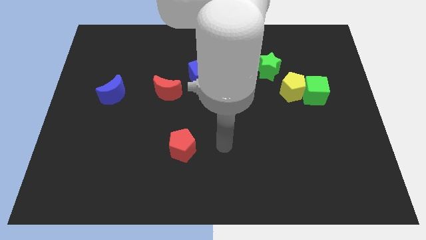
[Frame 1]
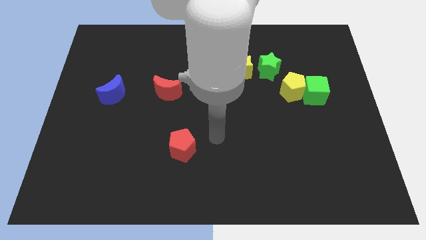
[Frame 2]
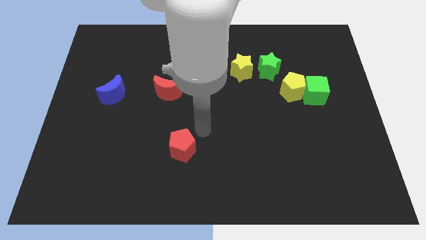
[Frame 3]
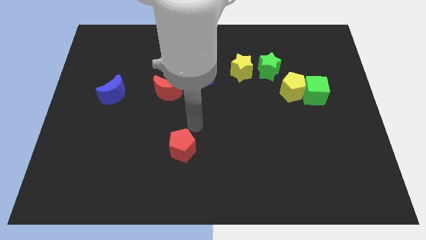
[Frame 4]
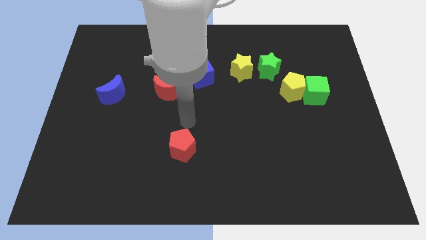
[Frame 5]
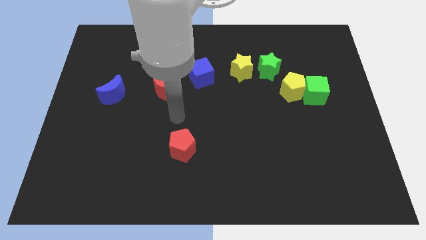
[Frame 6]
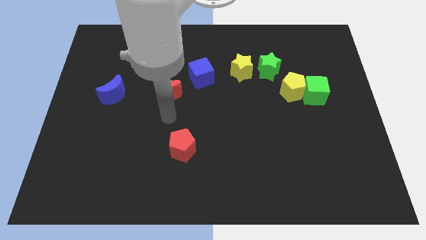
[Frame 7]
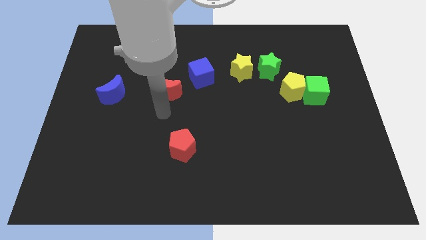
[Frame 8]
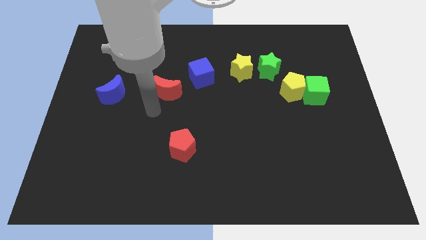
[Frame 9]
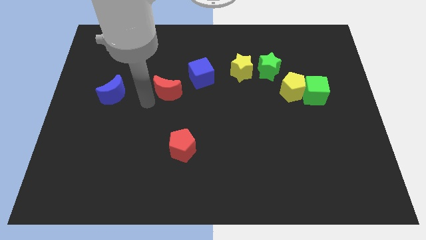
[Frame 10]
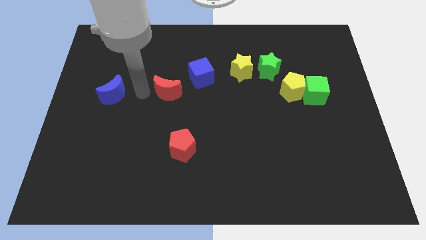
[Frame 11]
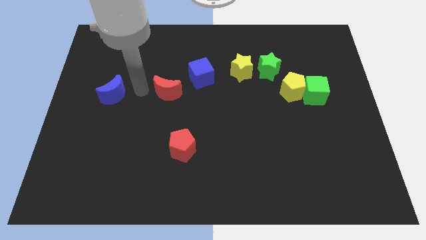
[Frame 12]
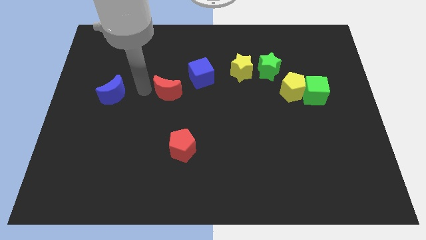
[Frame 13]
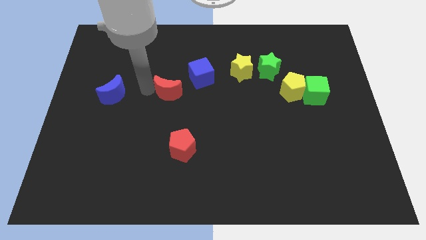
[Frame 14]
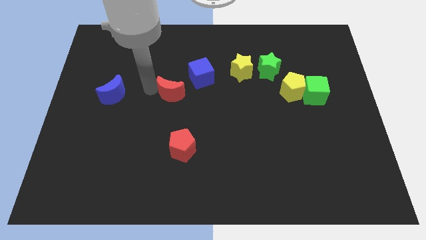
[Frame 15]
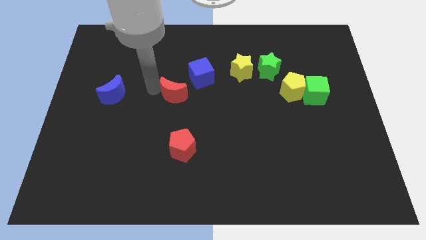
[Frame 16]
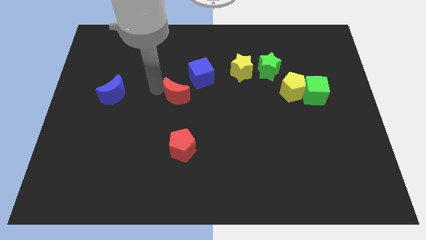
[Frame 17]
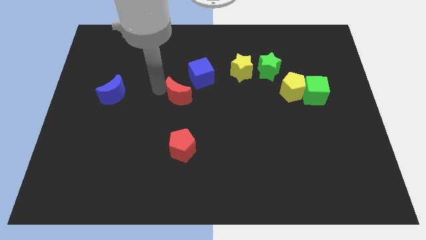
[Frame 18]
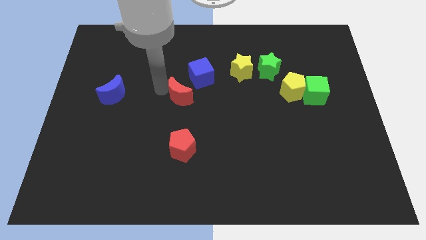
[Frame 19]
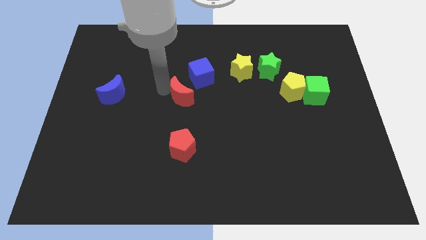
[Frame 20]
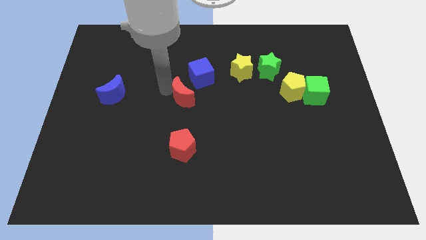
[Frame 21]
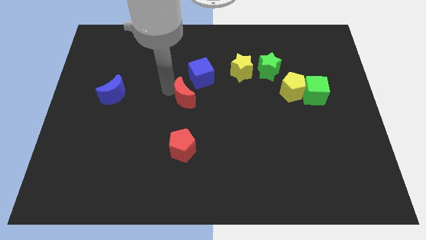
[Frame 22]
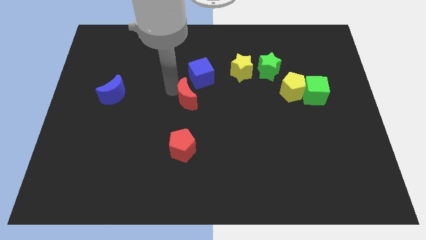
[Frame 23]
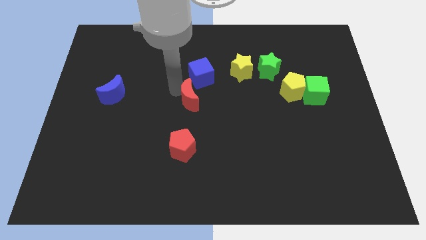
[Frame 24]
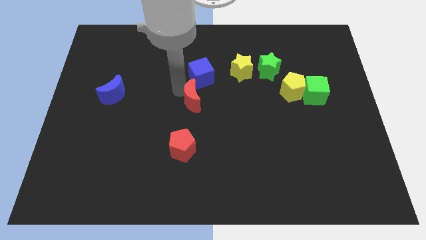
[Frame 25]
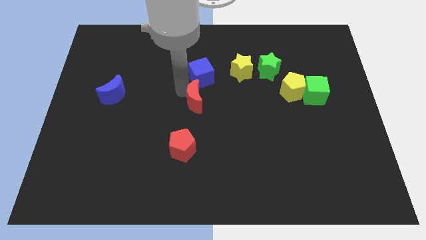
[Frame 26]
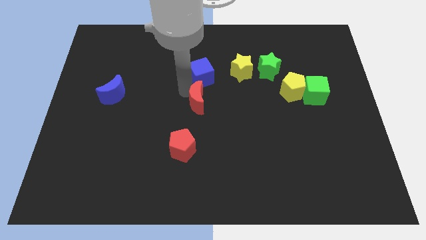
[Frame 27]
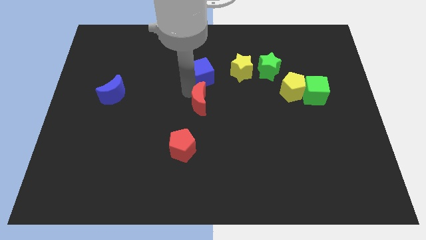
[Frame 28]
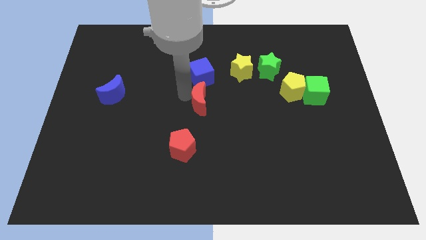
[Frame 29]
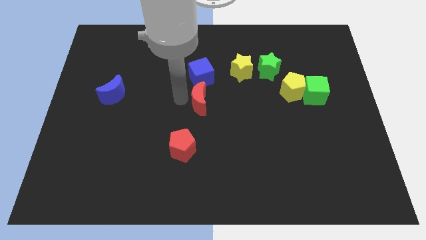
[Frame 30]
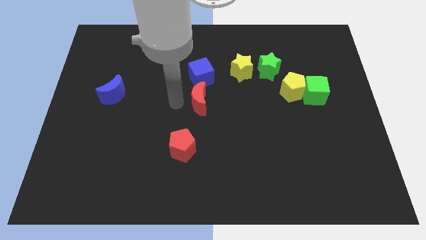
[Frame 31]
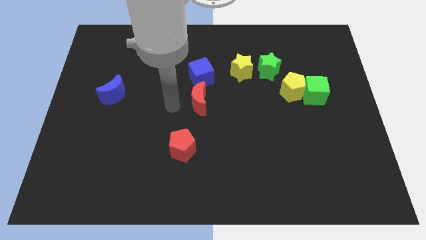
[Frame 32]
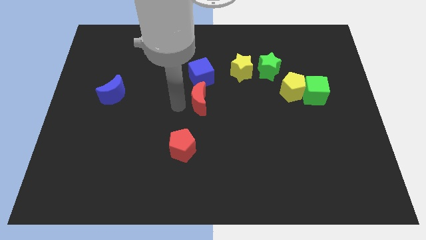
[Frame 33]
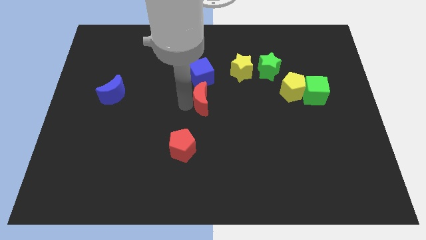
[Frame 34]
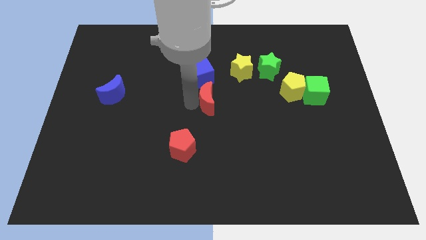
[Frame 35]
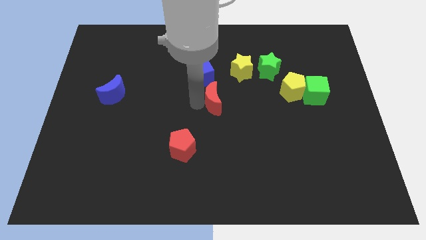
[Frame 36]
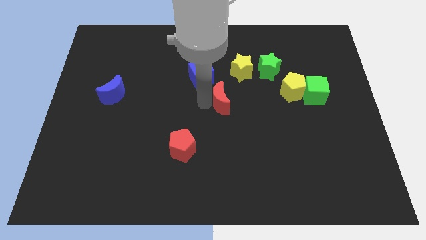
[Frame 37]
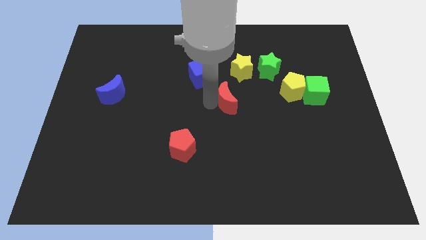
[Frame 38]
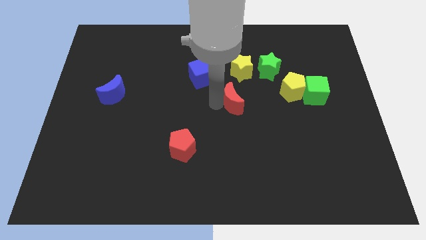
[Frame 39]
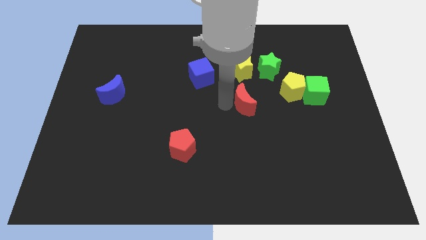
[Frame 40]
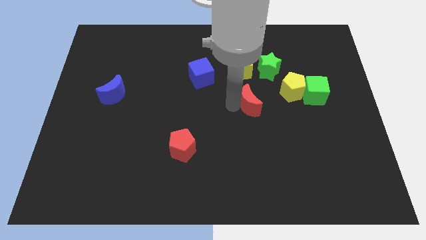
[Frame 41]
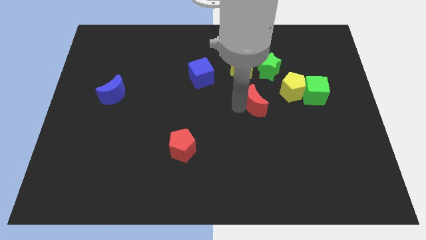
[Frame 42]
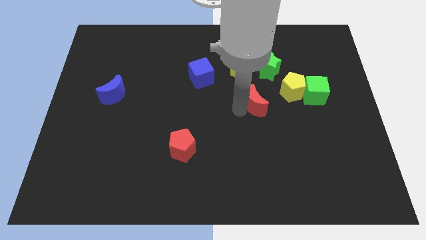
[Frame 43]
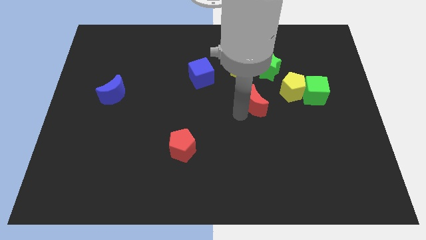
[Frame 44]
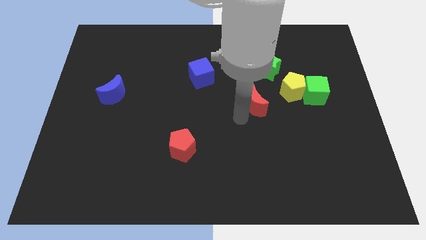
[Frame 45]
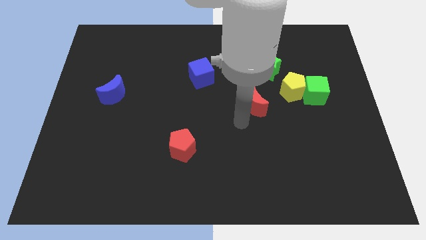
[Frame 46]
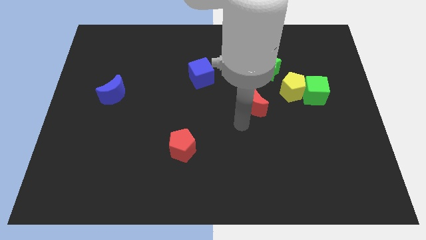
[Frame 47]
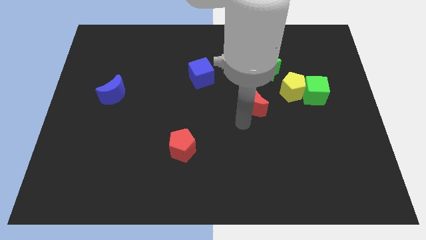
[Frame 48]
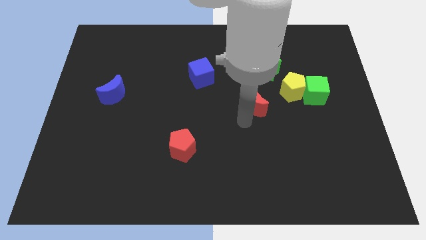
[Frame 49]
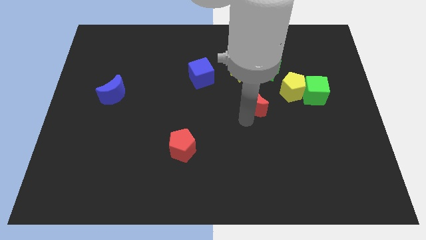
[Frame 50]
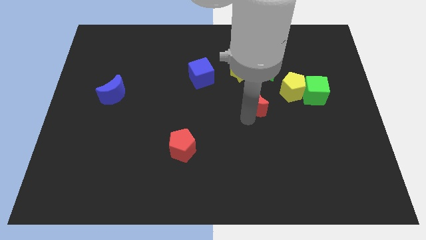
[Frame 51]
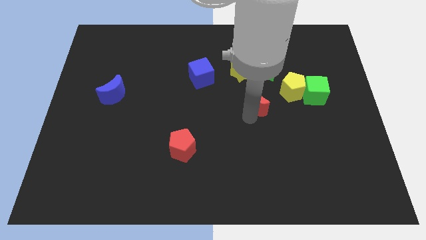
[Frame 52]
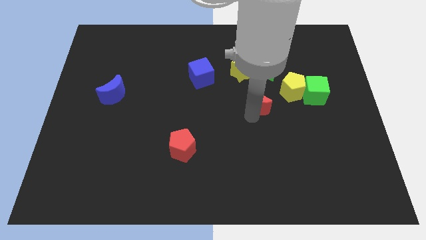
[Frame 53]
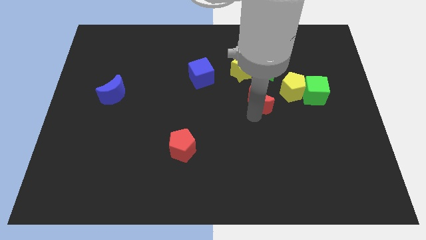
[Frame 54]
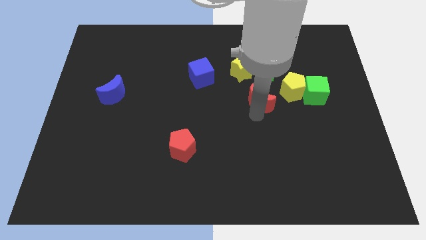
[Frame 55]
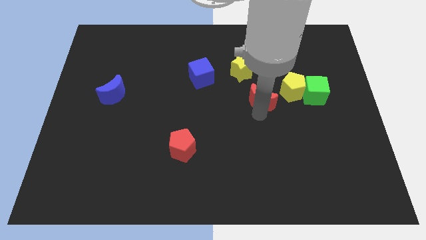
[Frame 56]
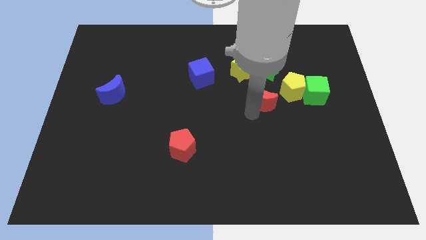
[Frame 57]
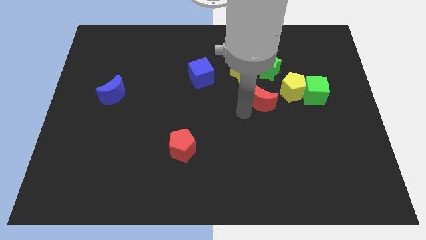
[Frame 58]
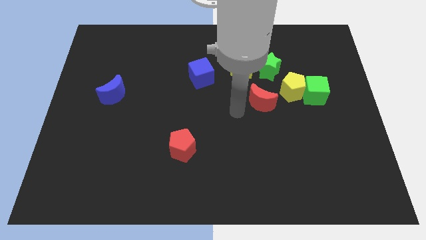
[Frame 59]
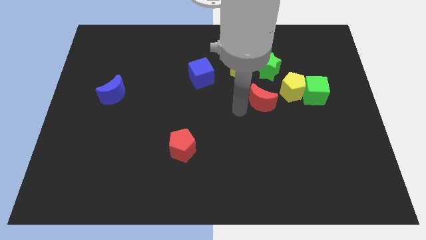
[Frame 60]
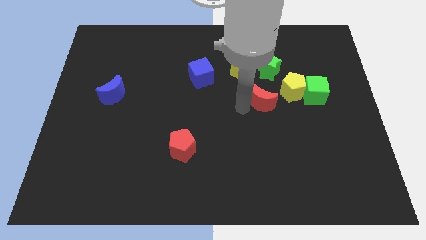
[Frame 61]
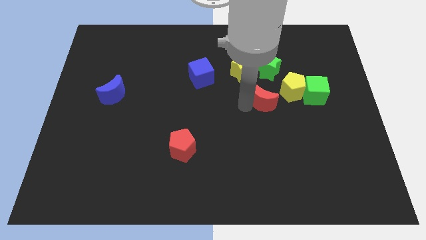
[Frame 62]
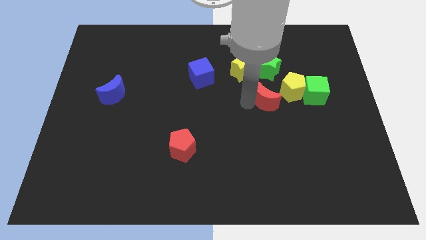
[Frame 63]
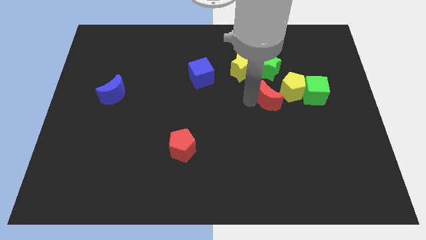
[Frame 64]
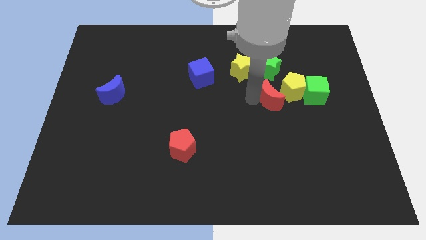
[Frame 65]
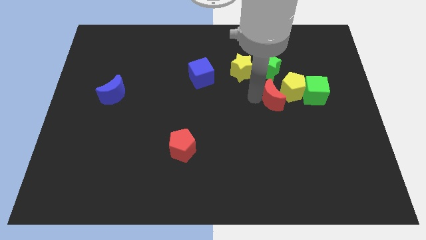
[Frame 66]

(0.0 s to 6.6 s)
move the red moon close to the yellow pentagon

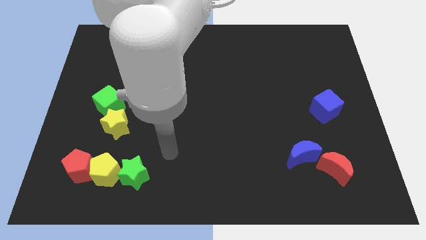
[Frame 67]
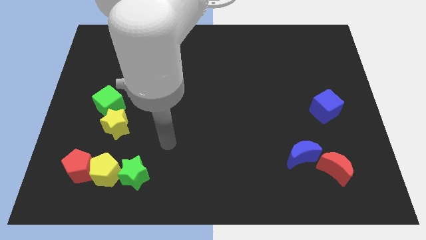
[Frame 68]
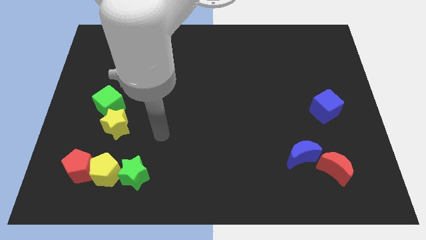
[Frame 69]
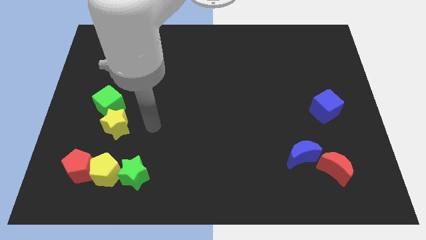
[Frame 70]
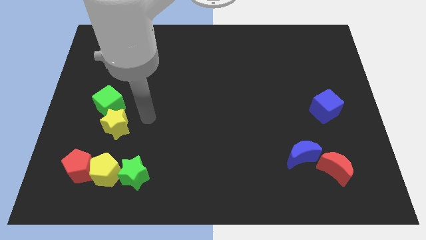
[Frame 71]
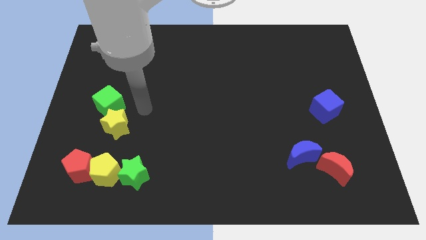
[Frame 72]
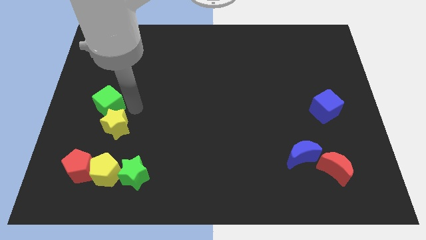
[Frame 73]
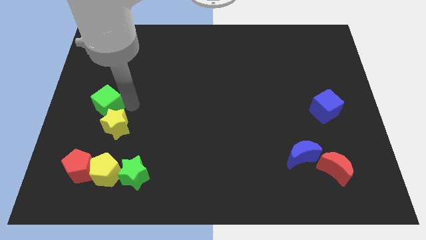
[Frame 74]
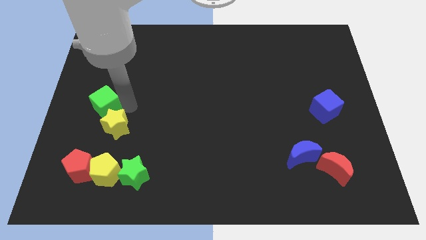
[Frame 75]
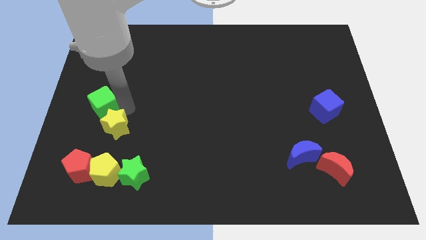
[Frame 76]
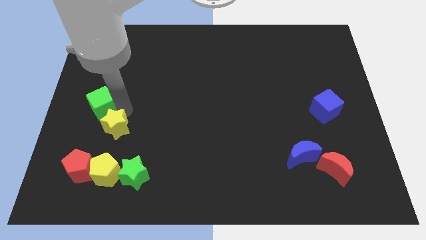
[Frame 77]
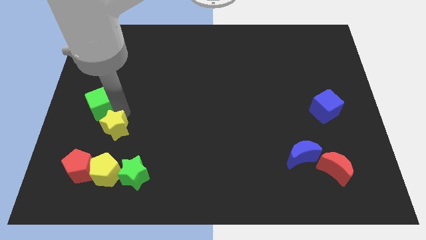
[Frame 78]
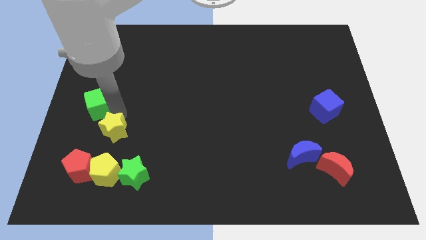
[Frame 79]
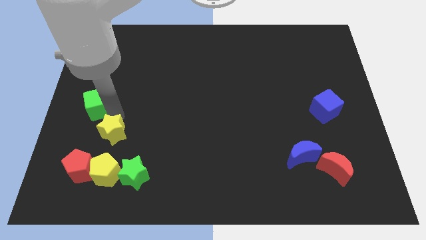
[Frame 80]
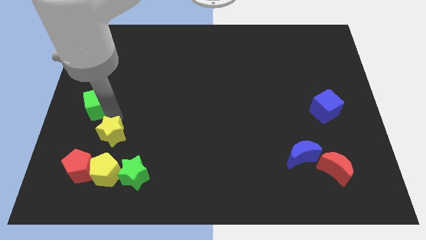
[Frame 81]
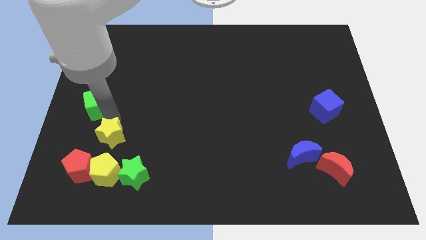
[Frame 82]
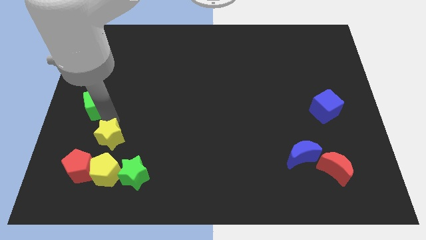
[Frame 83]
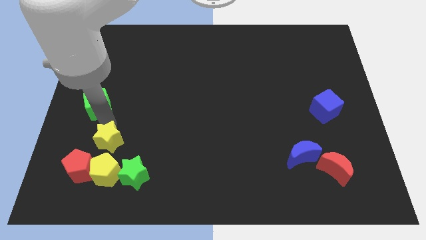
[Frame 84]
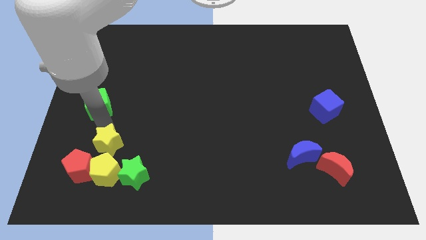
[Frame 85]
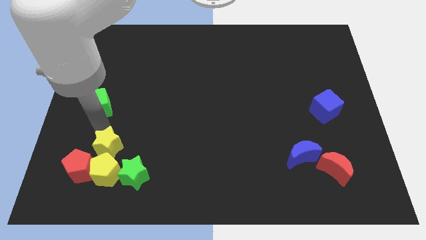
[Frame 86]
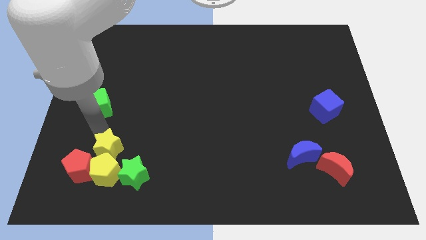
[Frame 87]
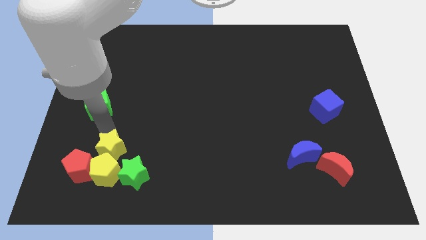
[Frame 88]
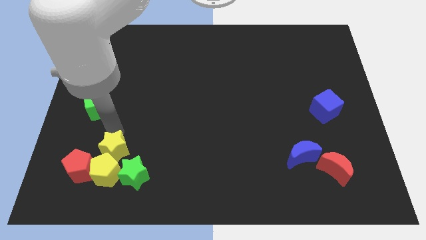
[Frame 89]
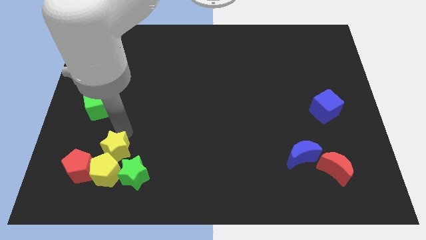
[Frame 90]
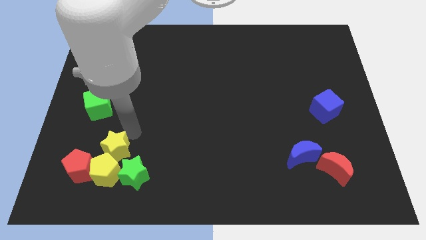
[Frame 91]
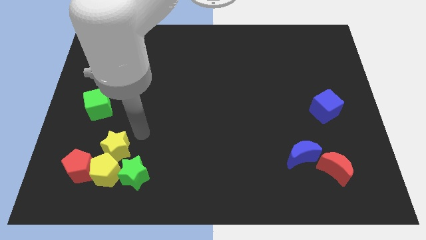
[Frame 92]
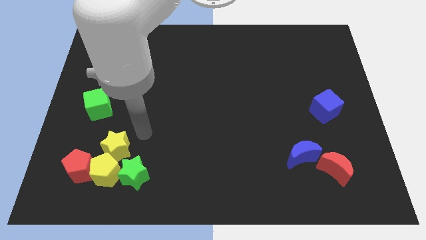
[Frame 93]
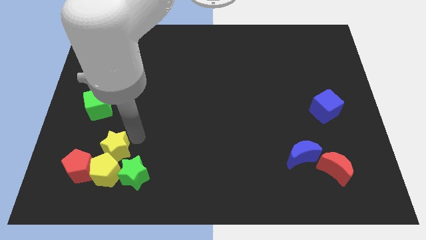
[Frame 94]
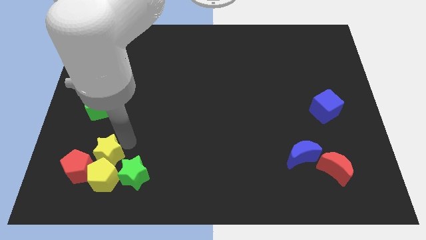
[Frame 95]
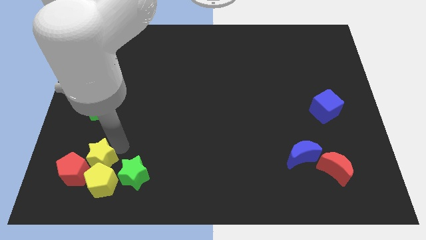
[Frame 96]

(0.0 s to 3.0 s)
slide the yellow star towards the red pentagon
